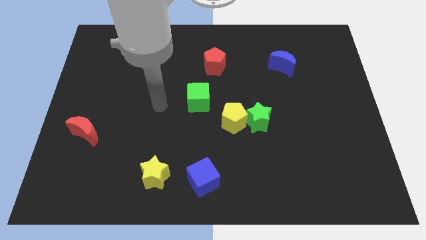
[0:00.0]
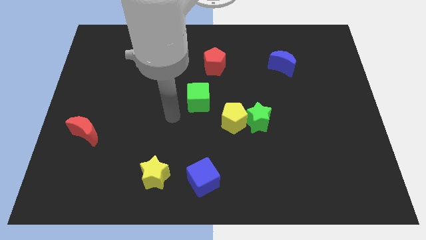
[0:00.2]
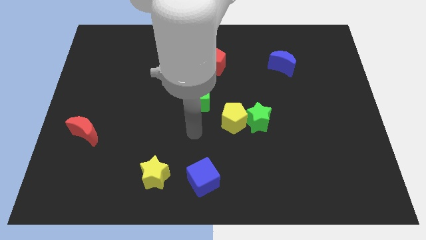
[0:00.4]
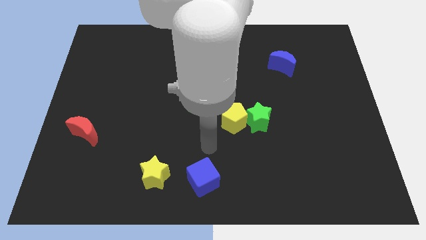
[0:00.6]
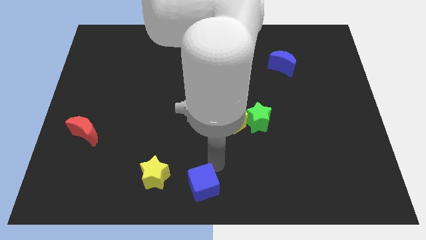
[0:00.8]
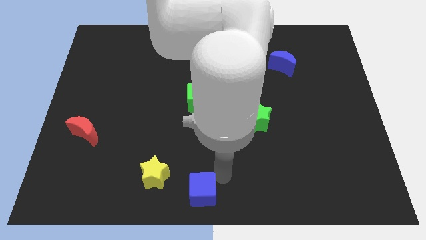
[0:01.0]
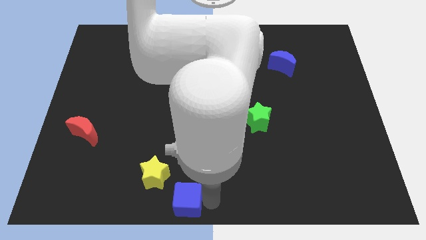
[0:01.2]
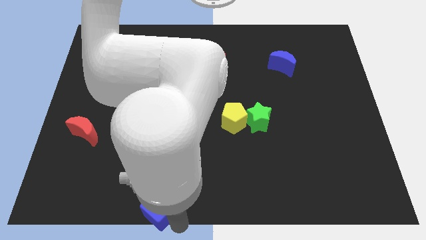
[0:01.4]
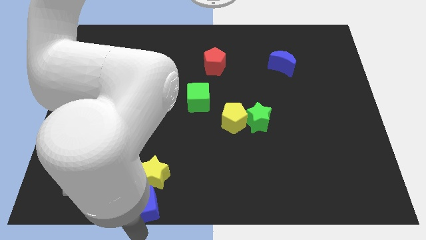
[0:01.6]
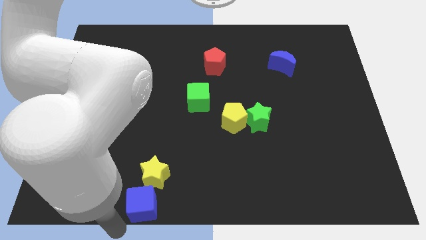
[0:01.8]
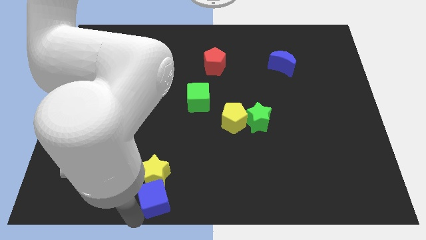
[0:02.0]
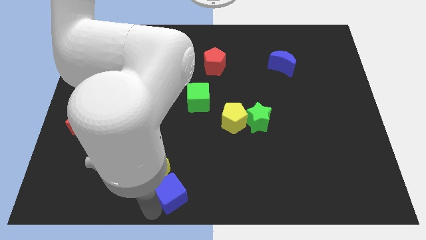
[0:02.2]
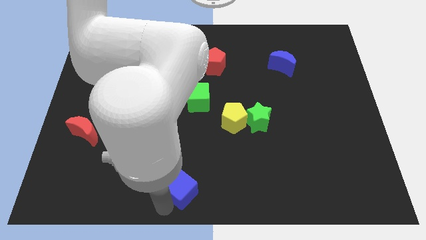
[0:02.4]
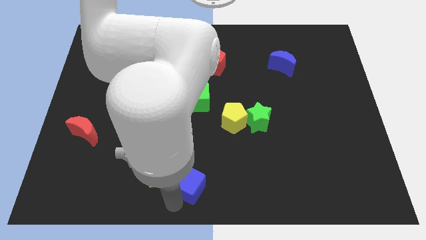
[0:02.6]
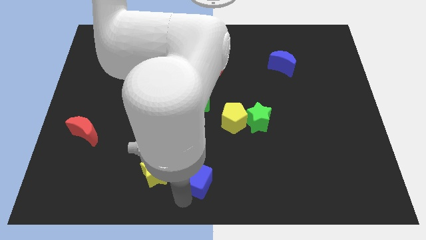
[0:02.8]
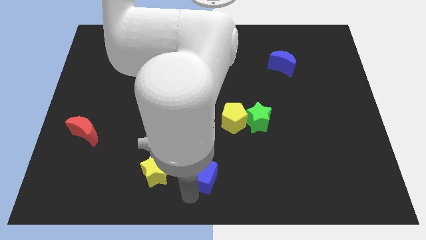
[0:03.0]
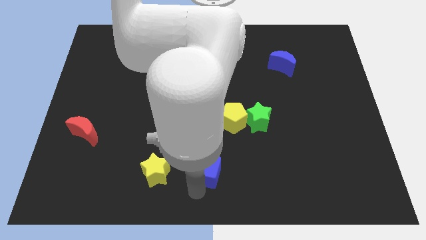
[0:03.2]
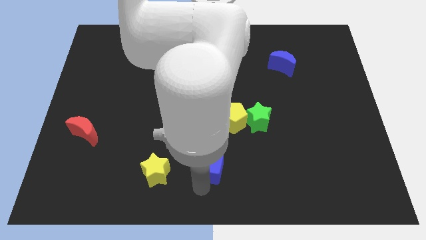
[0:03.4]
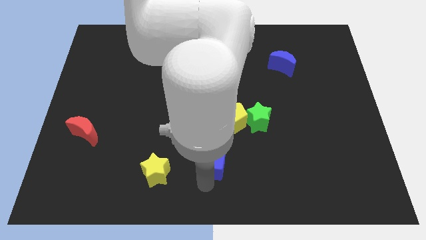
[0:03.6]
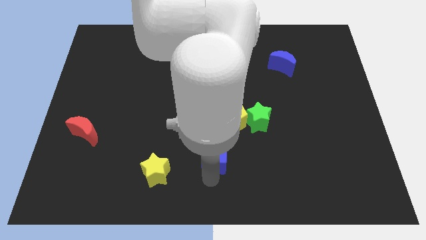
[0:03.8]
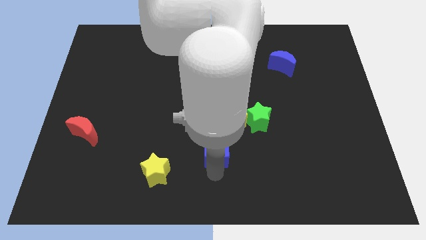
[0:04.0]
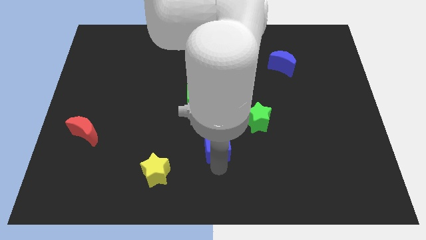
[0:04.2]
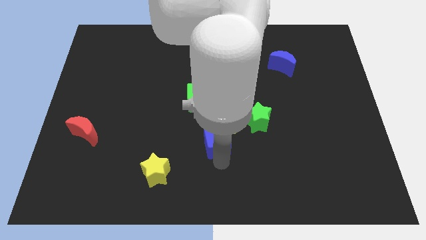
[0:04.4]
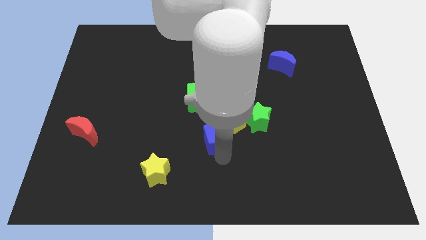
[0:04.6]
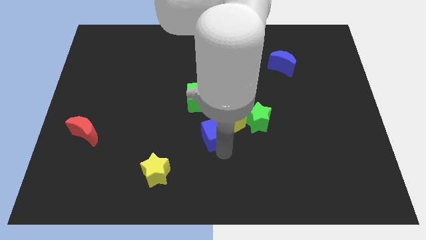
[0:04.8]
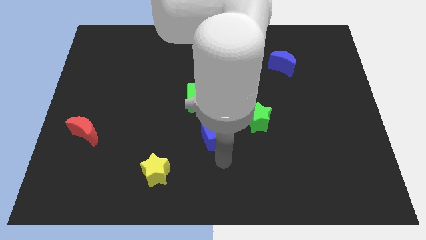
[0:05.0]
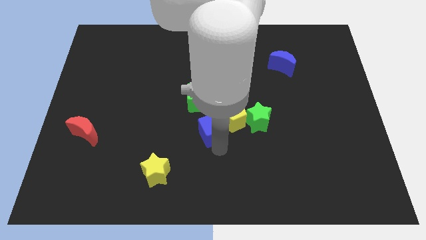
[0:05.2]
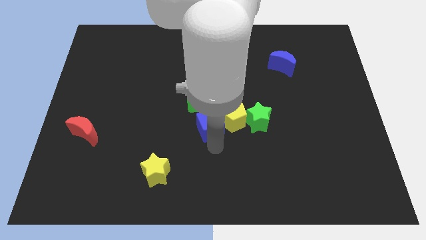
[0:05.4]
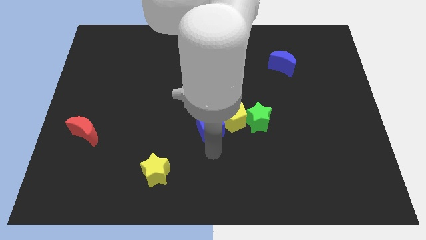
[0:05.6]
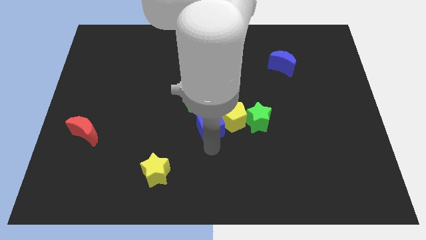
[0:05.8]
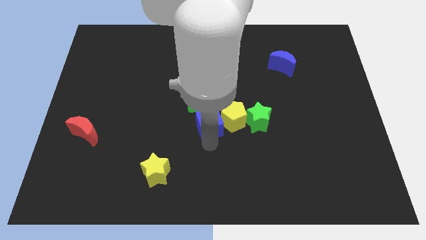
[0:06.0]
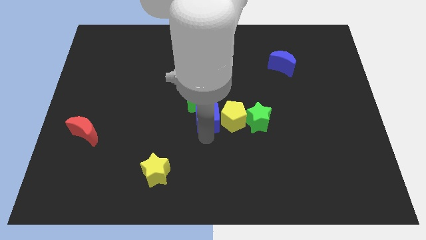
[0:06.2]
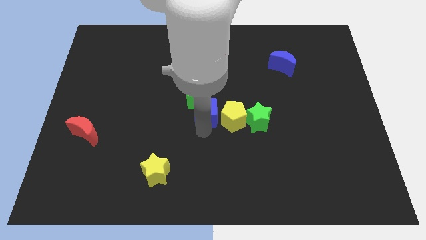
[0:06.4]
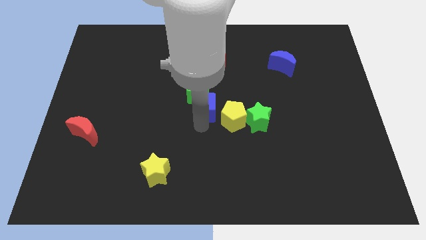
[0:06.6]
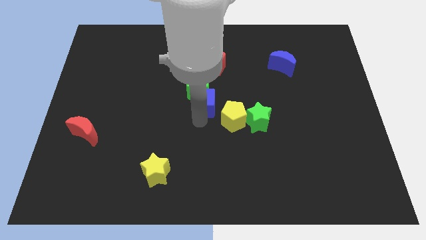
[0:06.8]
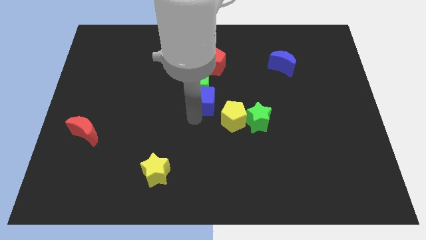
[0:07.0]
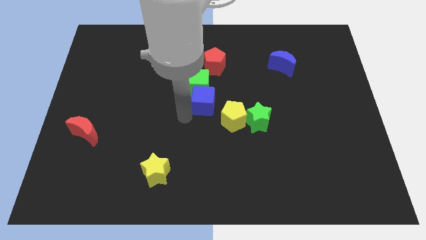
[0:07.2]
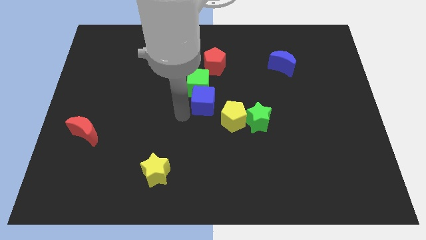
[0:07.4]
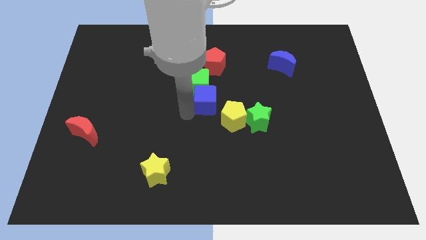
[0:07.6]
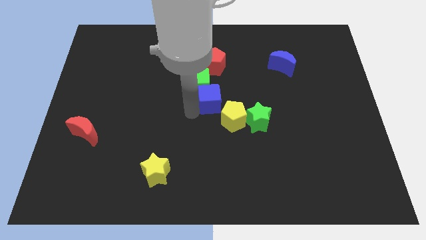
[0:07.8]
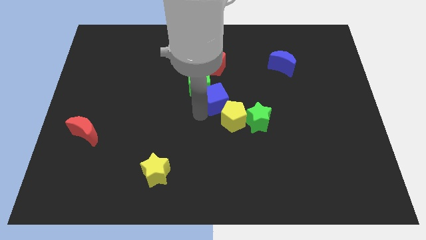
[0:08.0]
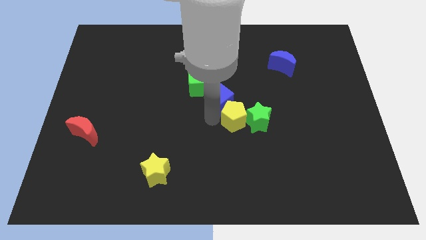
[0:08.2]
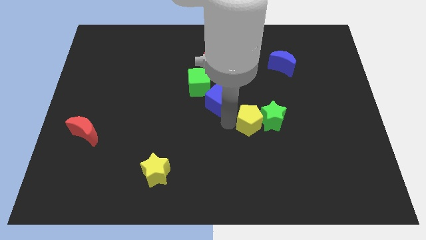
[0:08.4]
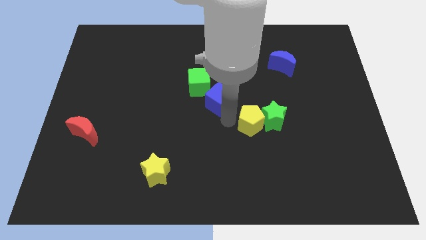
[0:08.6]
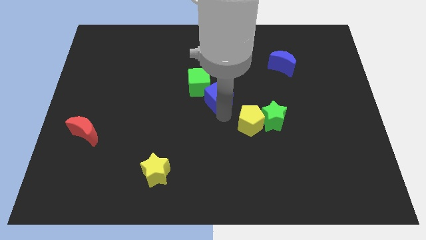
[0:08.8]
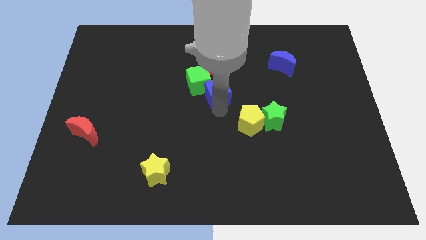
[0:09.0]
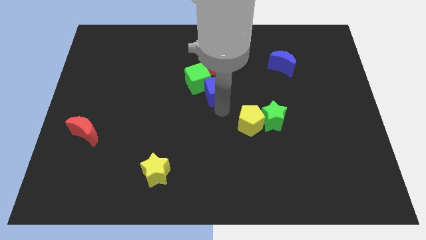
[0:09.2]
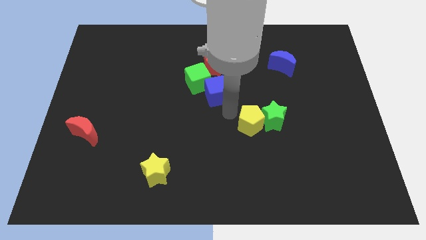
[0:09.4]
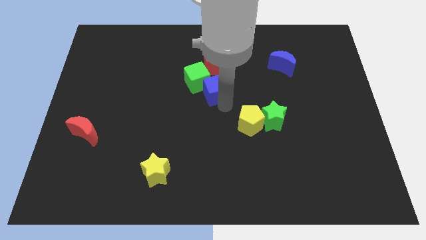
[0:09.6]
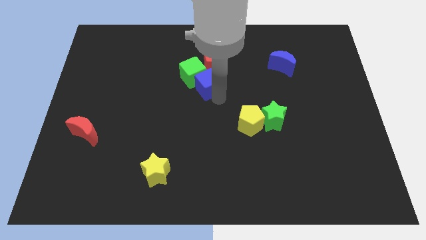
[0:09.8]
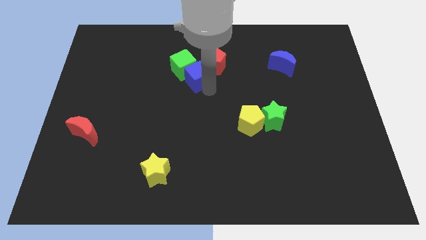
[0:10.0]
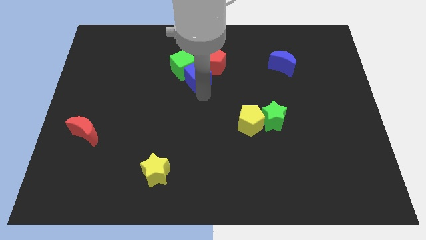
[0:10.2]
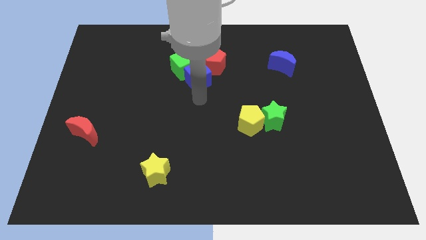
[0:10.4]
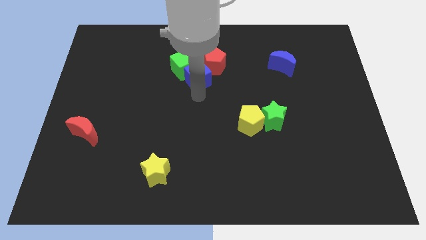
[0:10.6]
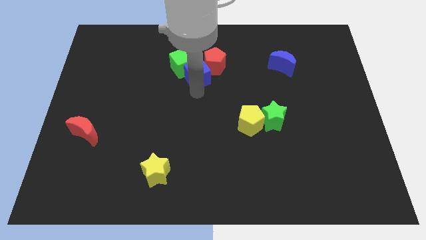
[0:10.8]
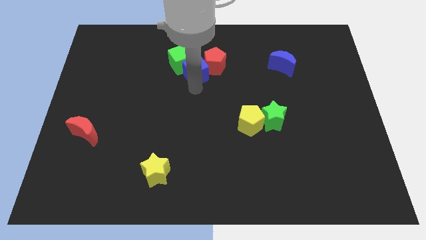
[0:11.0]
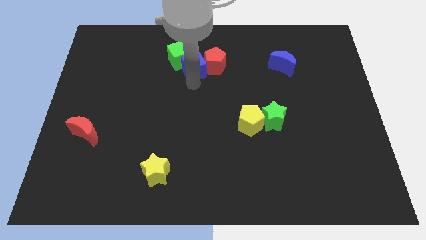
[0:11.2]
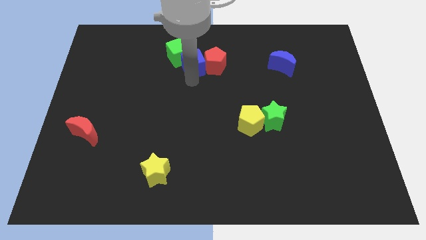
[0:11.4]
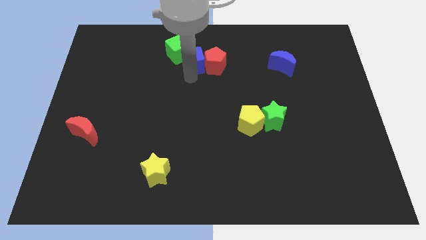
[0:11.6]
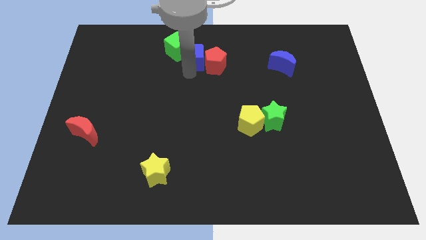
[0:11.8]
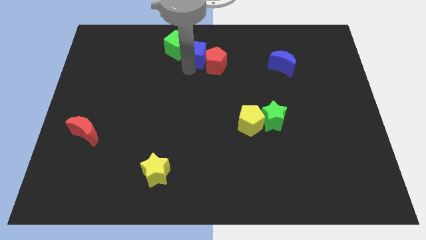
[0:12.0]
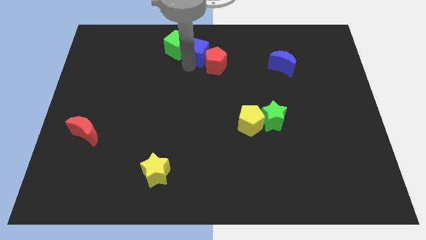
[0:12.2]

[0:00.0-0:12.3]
move the blue cube to the top side
